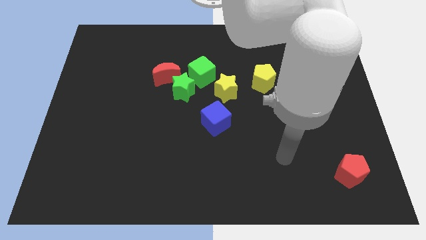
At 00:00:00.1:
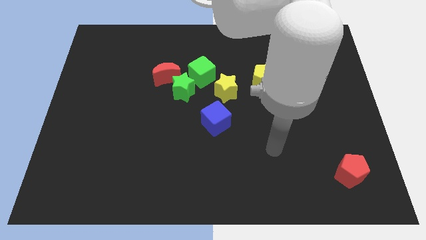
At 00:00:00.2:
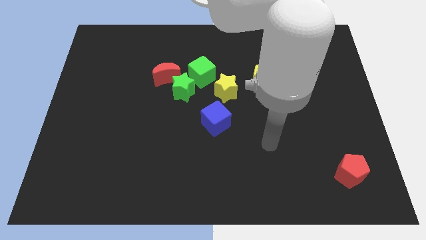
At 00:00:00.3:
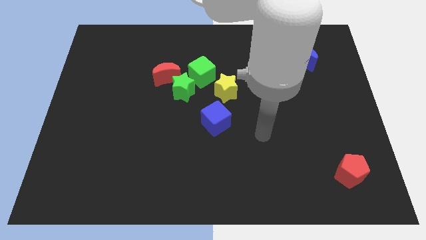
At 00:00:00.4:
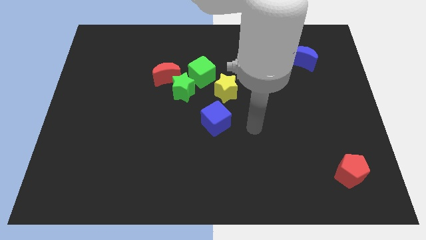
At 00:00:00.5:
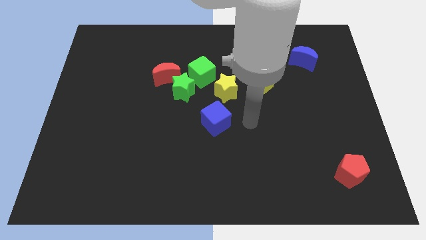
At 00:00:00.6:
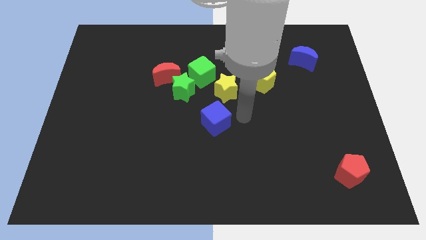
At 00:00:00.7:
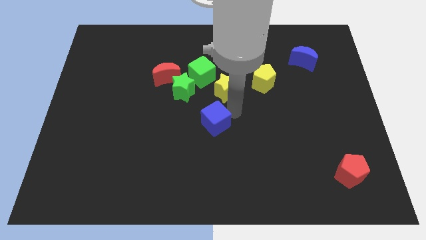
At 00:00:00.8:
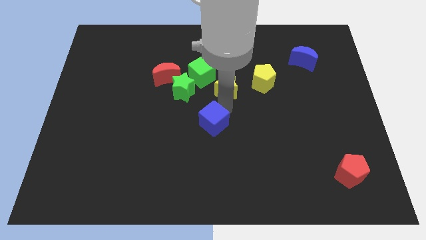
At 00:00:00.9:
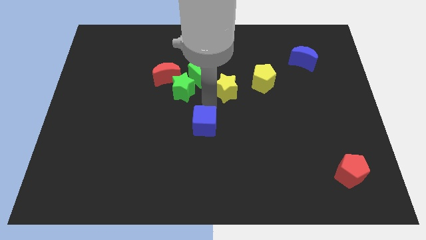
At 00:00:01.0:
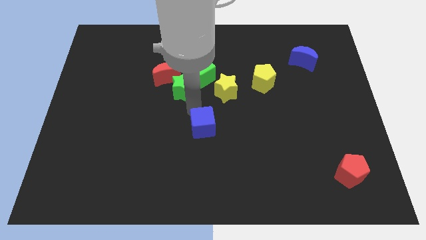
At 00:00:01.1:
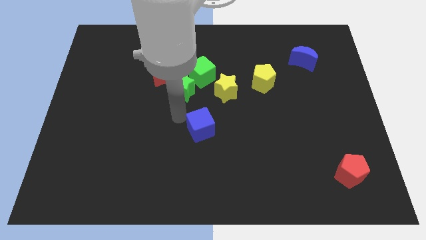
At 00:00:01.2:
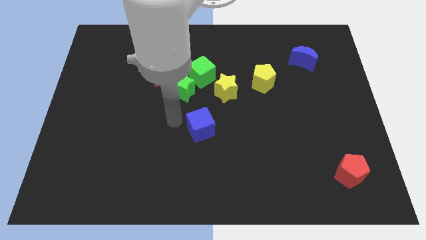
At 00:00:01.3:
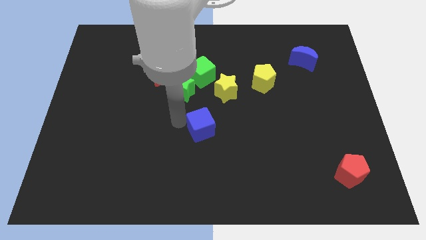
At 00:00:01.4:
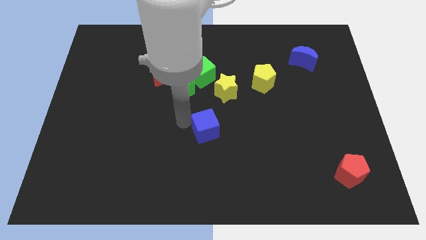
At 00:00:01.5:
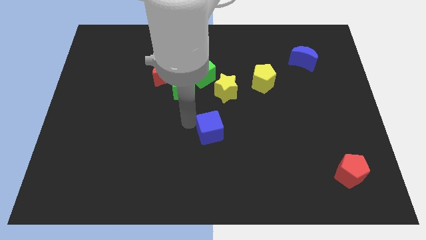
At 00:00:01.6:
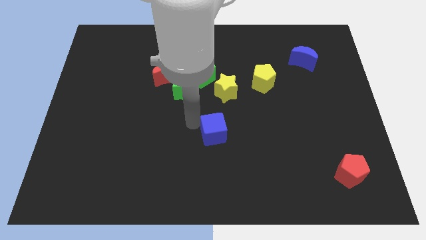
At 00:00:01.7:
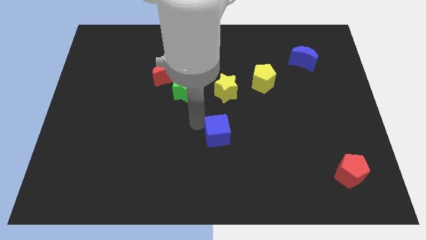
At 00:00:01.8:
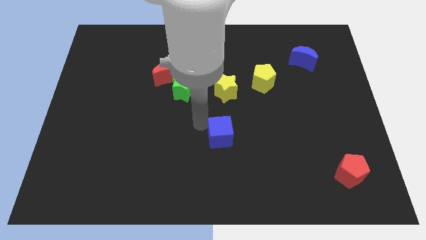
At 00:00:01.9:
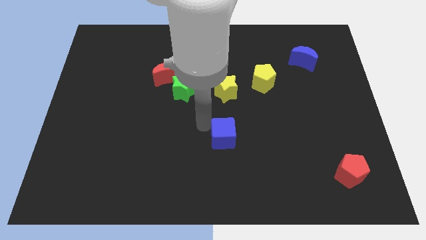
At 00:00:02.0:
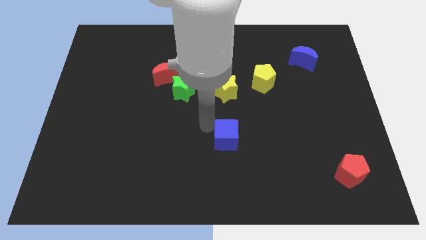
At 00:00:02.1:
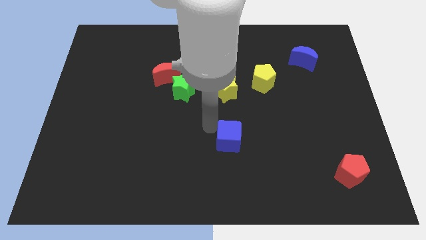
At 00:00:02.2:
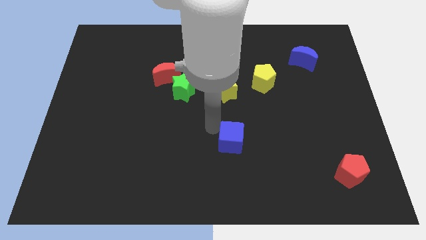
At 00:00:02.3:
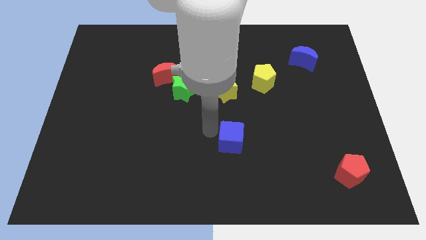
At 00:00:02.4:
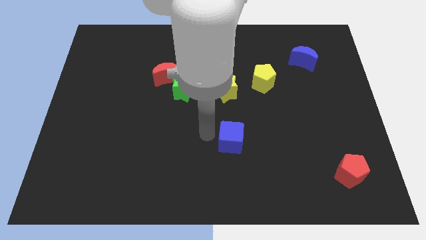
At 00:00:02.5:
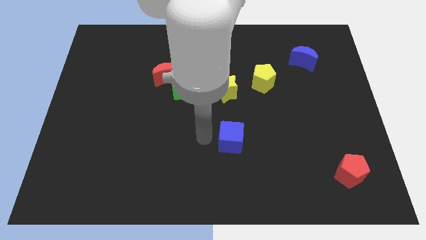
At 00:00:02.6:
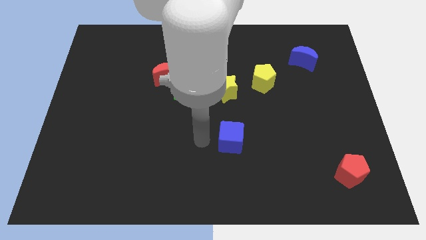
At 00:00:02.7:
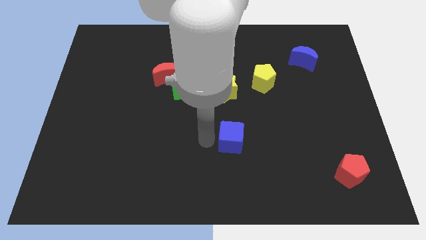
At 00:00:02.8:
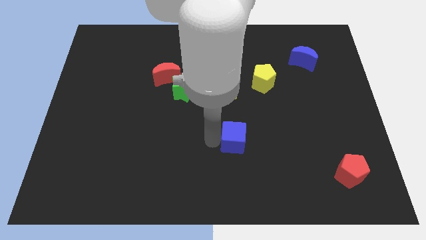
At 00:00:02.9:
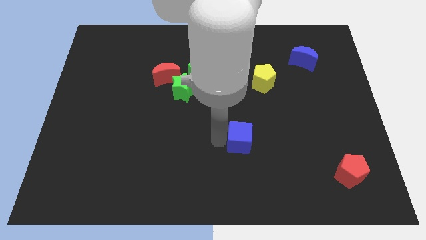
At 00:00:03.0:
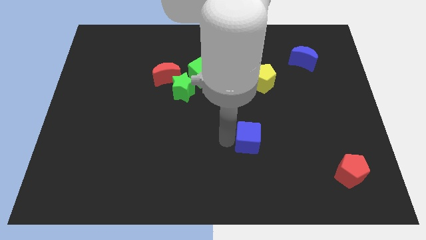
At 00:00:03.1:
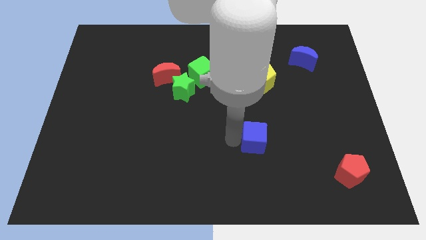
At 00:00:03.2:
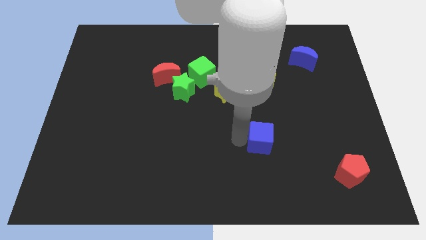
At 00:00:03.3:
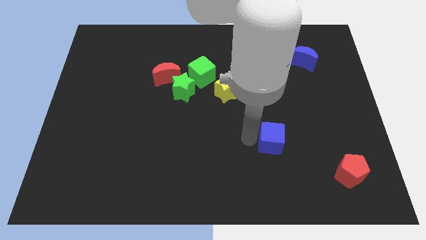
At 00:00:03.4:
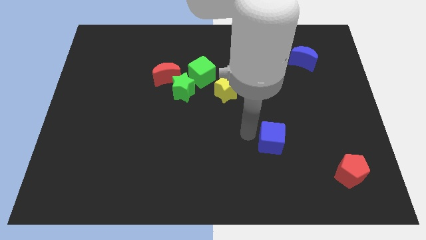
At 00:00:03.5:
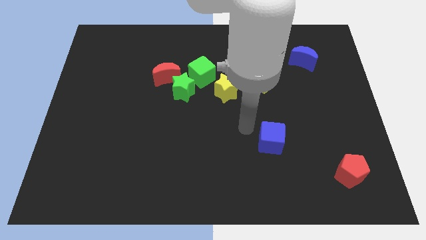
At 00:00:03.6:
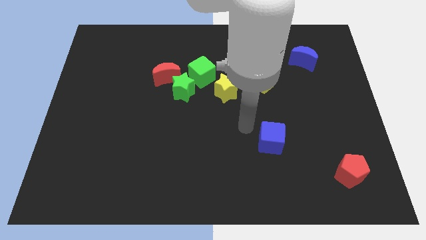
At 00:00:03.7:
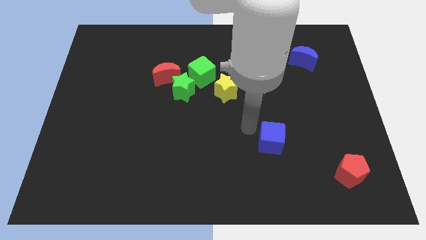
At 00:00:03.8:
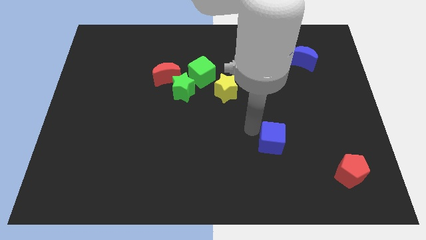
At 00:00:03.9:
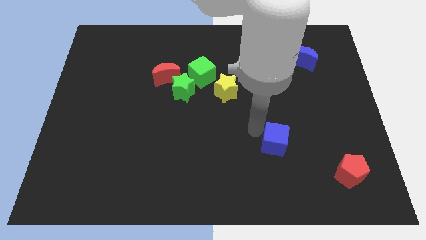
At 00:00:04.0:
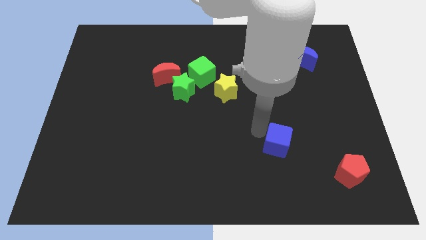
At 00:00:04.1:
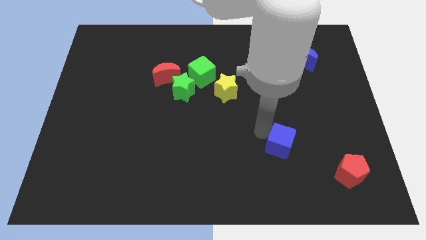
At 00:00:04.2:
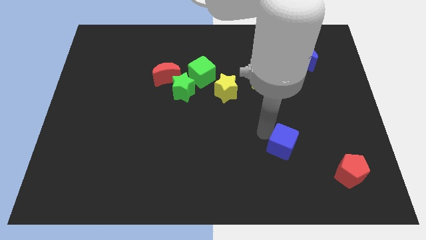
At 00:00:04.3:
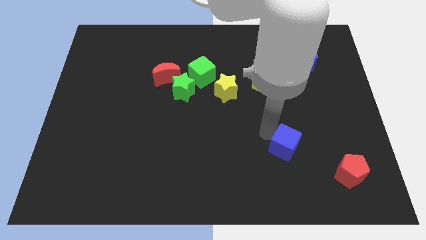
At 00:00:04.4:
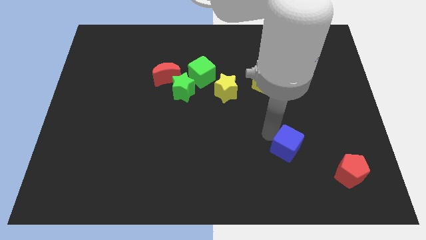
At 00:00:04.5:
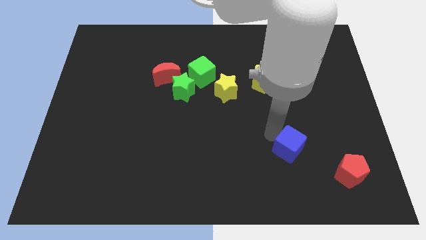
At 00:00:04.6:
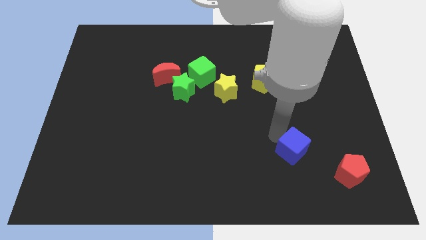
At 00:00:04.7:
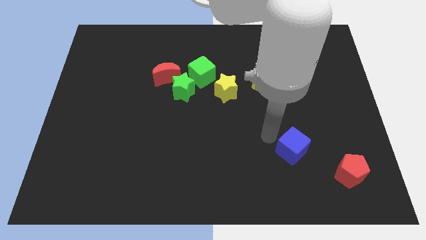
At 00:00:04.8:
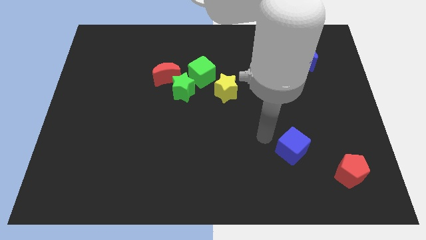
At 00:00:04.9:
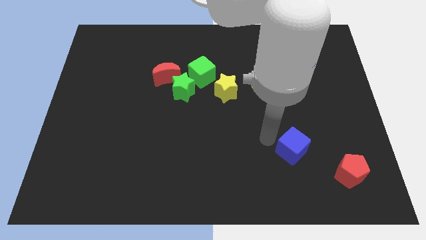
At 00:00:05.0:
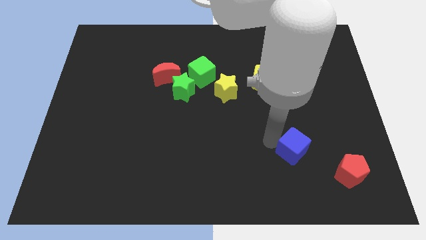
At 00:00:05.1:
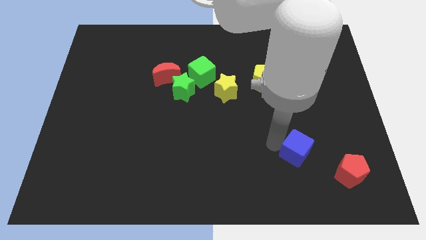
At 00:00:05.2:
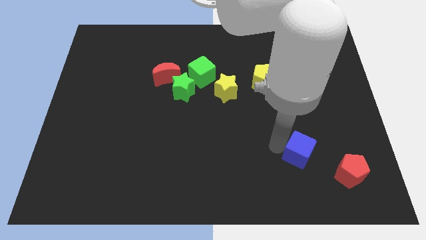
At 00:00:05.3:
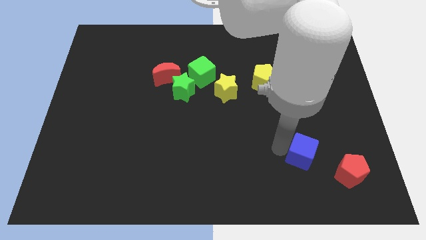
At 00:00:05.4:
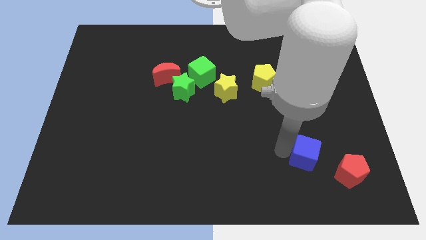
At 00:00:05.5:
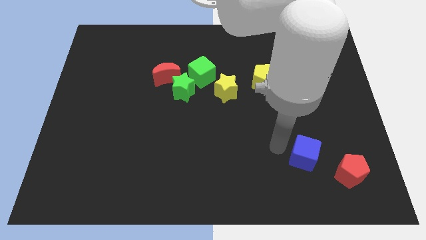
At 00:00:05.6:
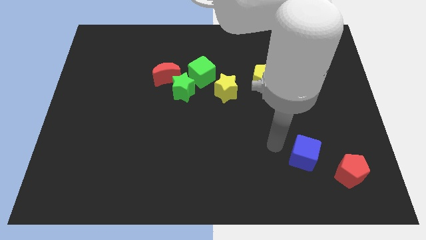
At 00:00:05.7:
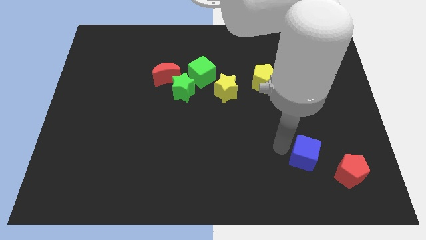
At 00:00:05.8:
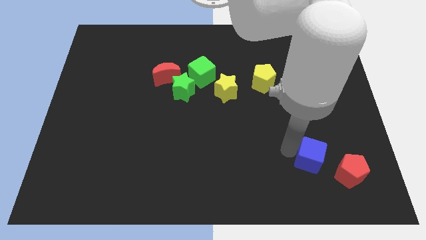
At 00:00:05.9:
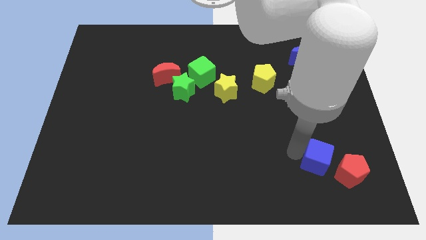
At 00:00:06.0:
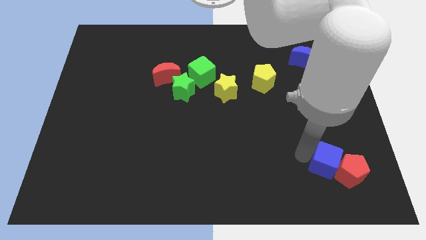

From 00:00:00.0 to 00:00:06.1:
move the blue cube to the red pentagon
